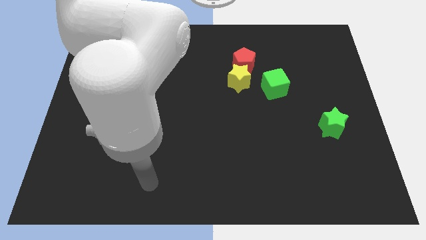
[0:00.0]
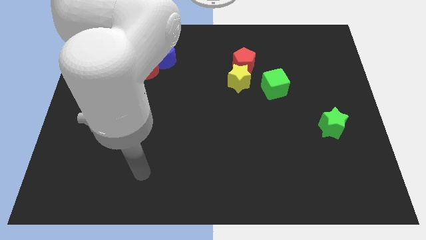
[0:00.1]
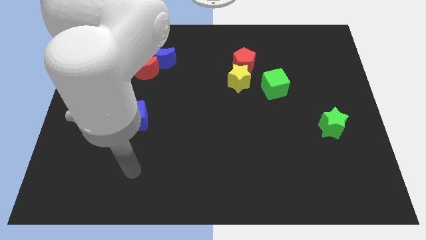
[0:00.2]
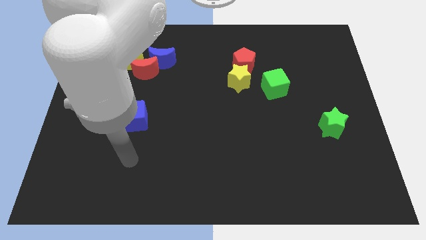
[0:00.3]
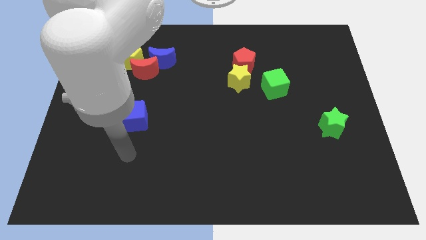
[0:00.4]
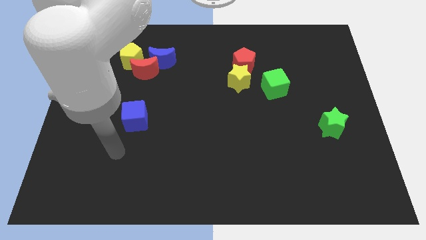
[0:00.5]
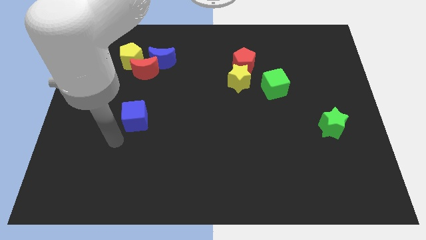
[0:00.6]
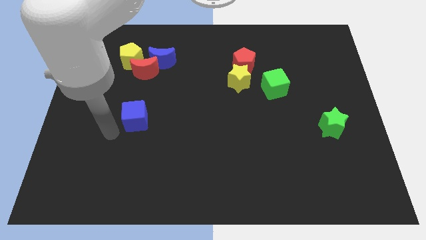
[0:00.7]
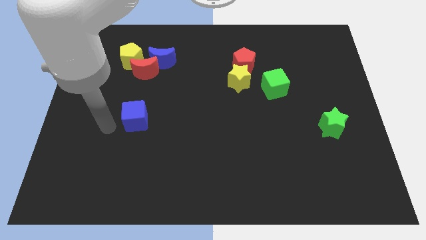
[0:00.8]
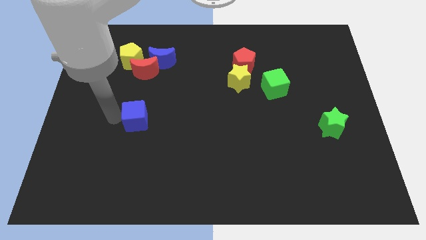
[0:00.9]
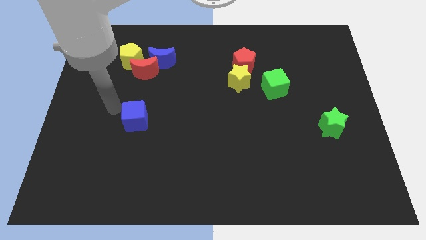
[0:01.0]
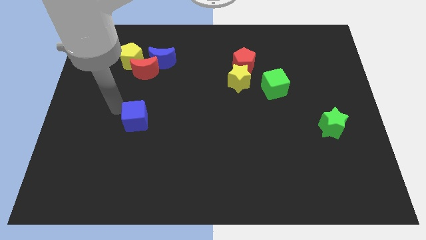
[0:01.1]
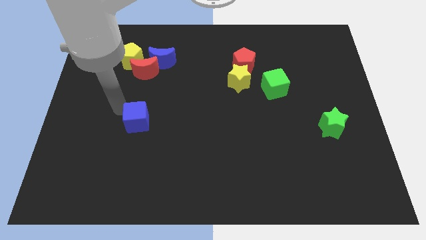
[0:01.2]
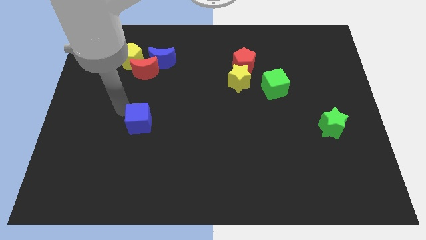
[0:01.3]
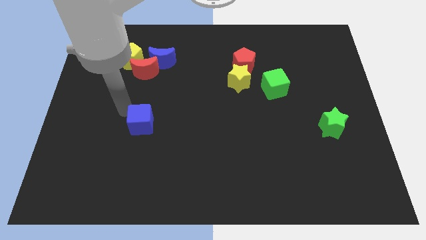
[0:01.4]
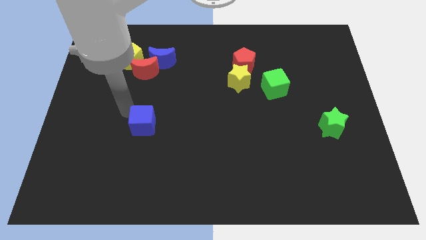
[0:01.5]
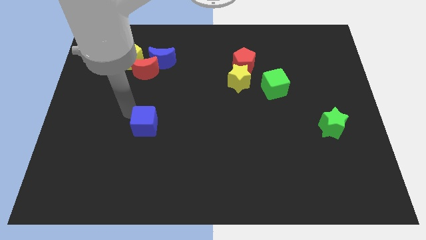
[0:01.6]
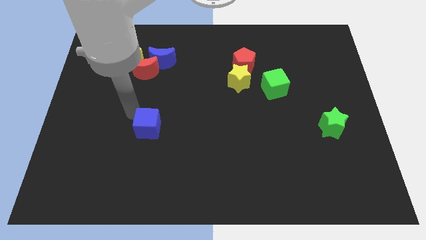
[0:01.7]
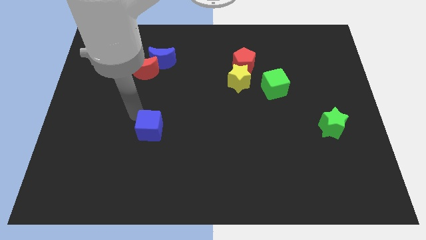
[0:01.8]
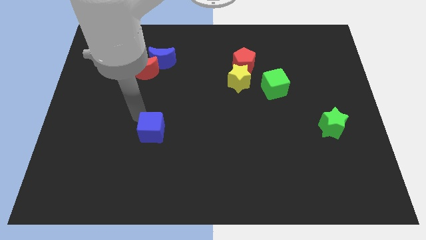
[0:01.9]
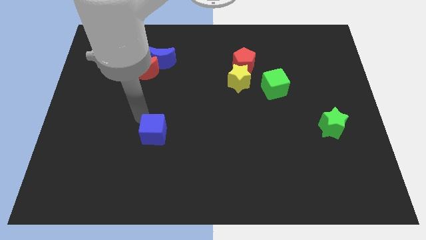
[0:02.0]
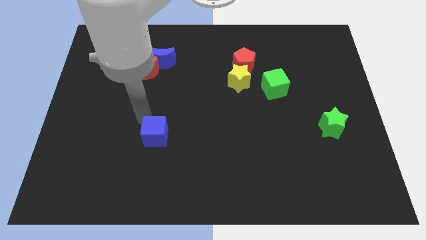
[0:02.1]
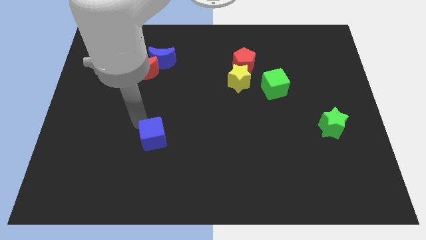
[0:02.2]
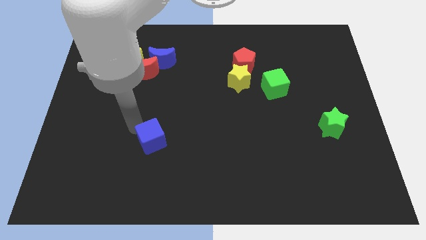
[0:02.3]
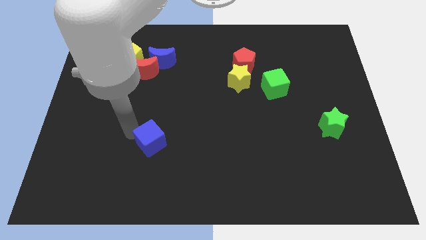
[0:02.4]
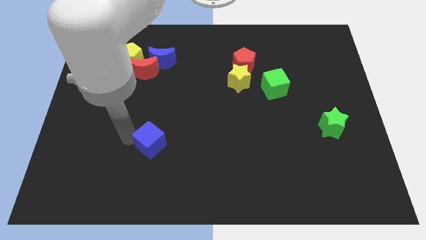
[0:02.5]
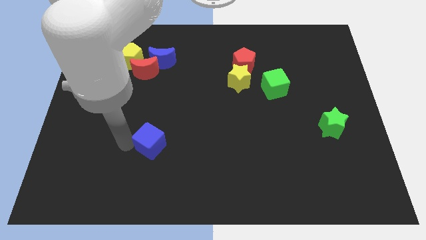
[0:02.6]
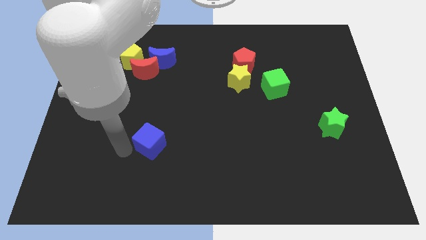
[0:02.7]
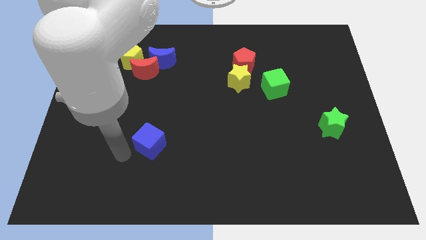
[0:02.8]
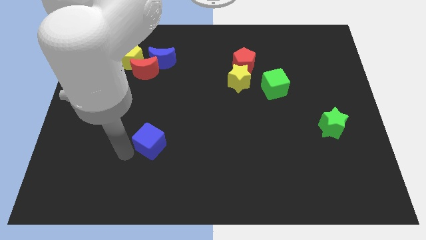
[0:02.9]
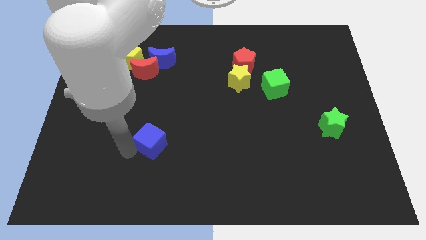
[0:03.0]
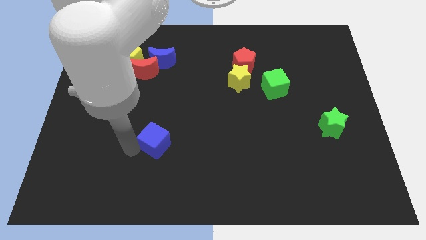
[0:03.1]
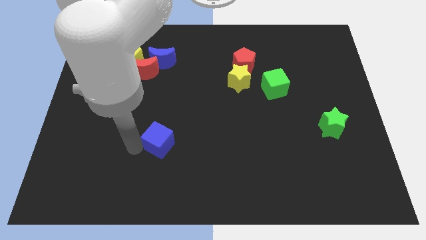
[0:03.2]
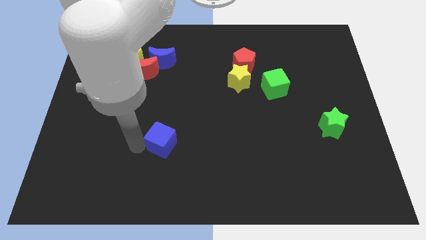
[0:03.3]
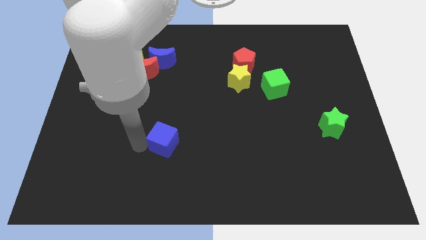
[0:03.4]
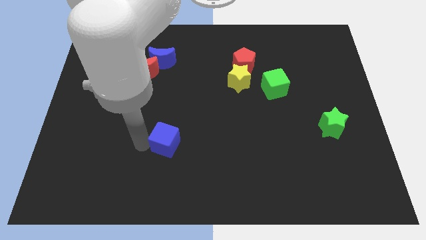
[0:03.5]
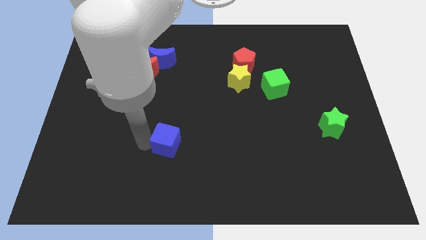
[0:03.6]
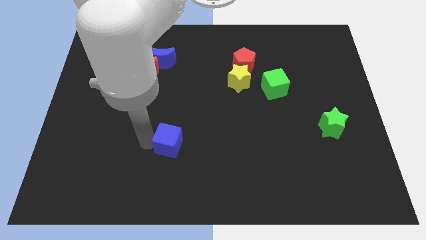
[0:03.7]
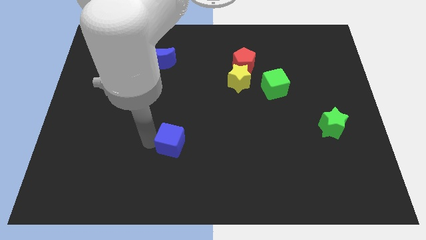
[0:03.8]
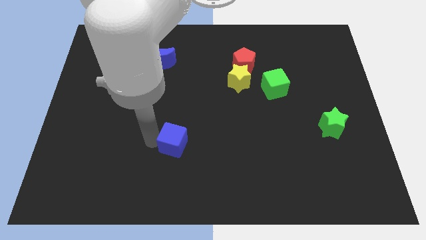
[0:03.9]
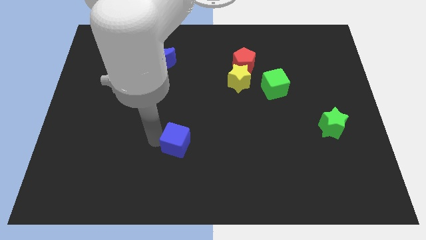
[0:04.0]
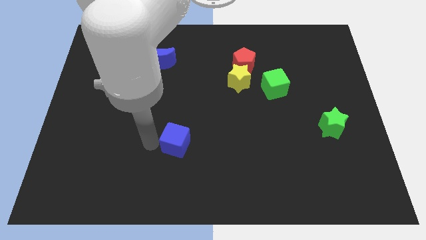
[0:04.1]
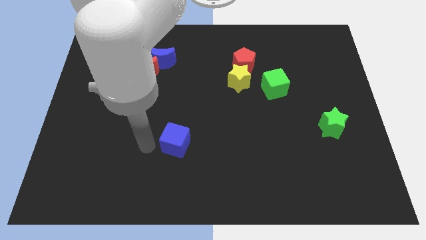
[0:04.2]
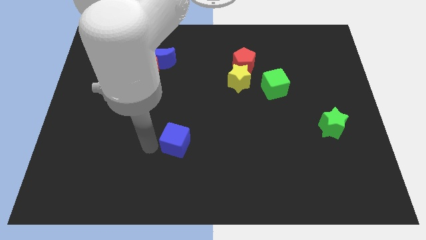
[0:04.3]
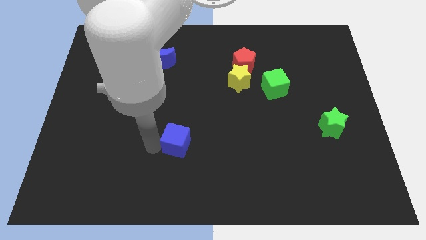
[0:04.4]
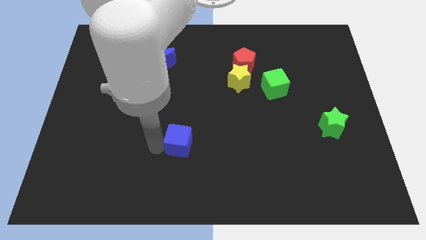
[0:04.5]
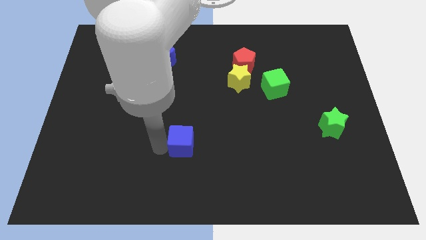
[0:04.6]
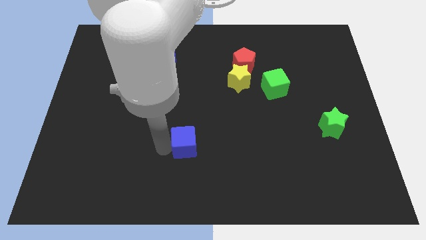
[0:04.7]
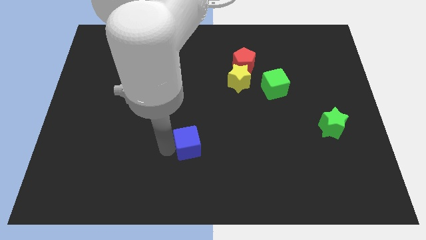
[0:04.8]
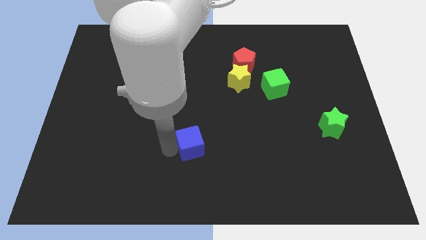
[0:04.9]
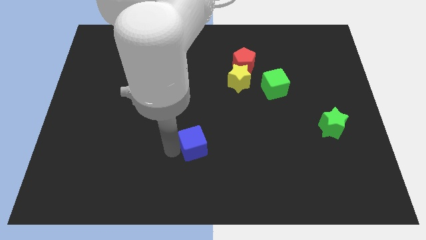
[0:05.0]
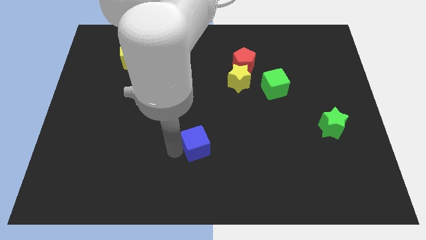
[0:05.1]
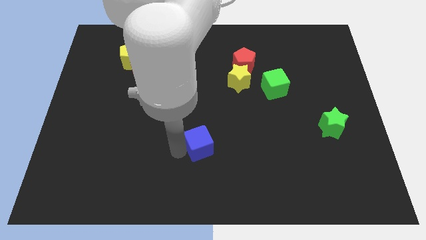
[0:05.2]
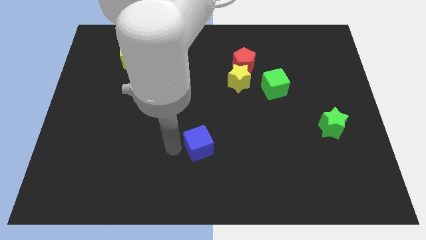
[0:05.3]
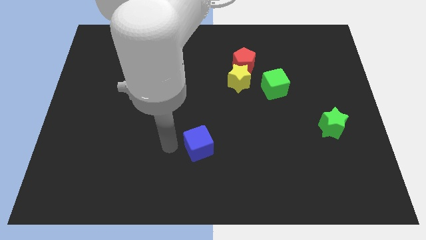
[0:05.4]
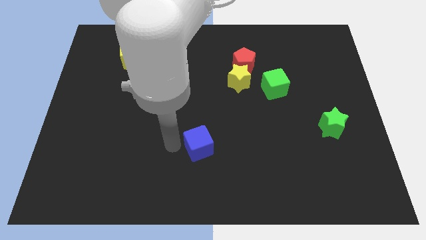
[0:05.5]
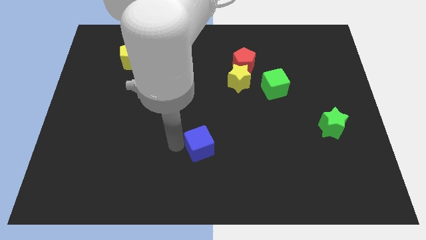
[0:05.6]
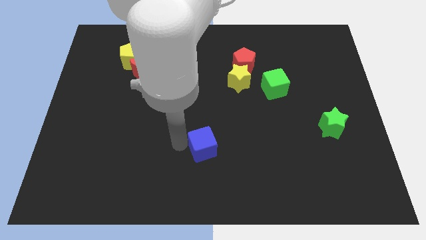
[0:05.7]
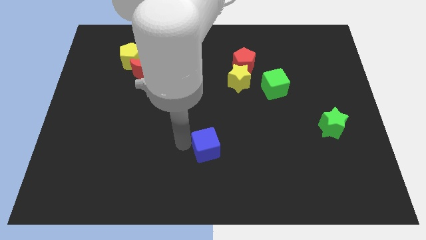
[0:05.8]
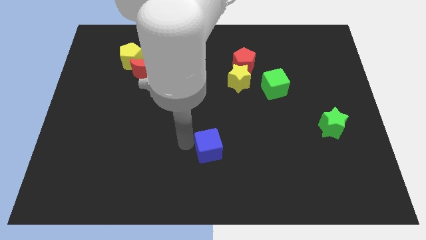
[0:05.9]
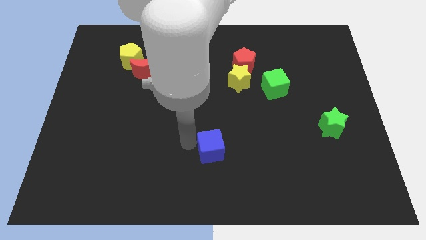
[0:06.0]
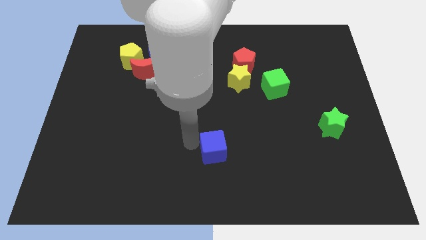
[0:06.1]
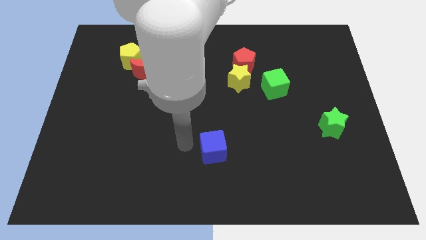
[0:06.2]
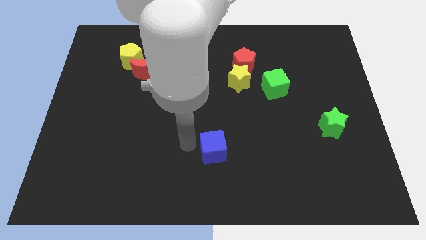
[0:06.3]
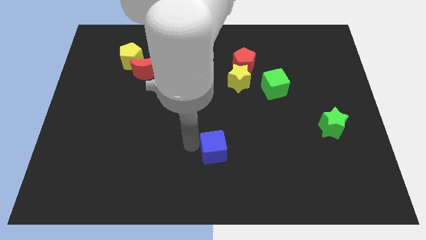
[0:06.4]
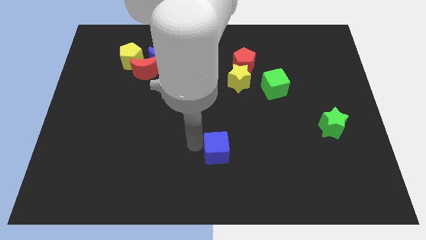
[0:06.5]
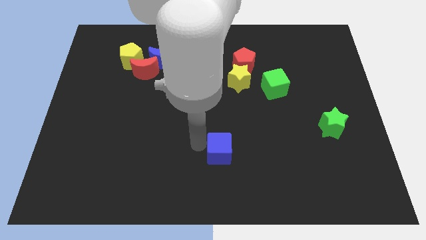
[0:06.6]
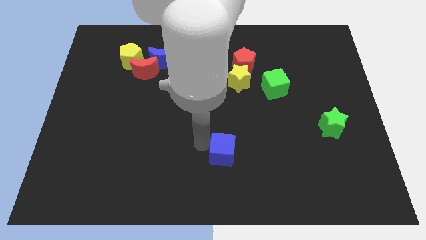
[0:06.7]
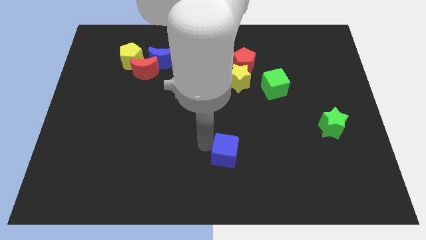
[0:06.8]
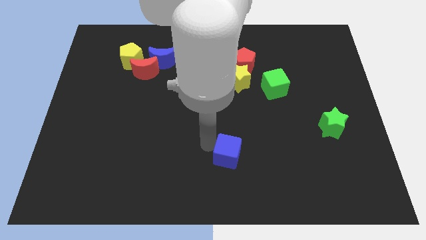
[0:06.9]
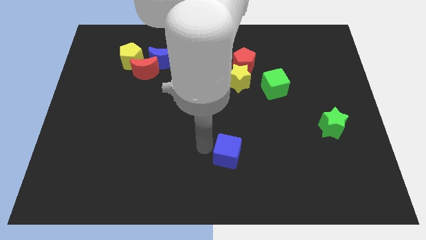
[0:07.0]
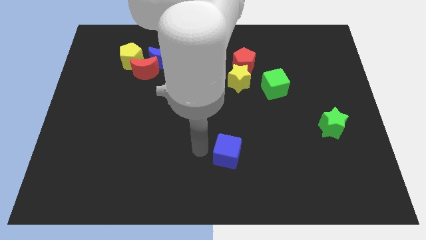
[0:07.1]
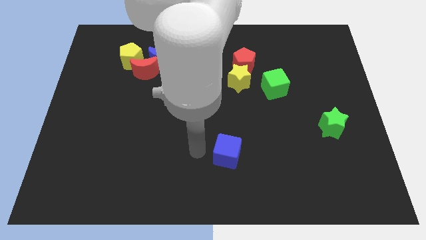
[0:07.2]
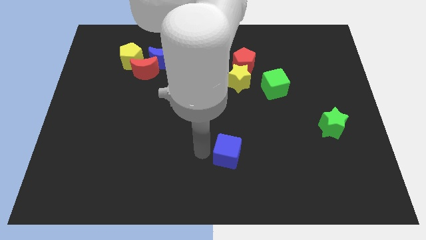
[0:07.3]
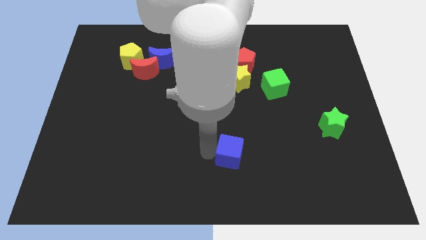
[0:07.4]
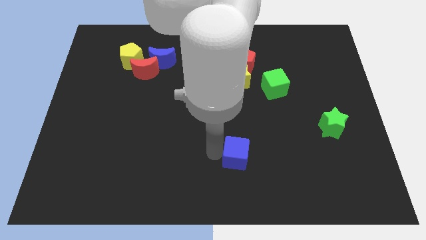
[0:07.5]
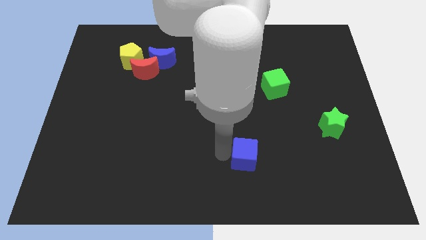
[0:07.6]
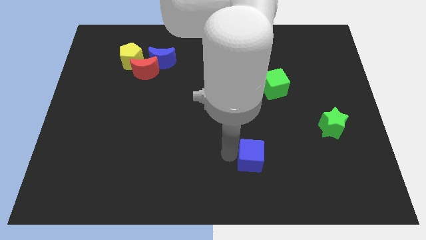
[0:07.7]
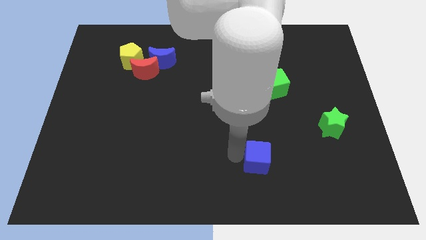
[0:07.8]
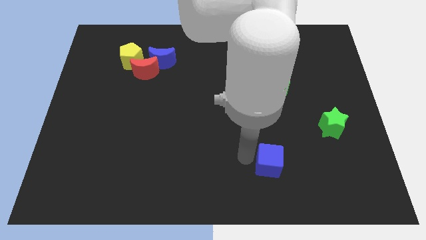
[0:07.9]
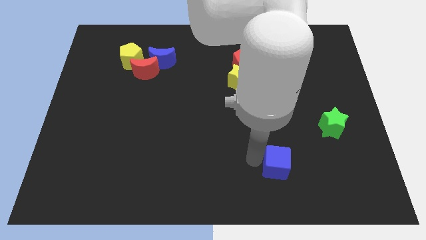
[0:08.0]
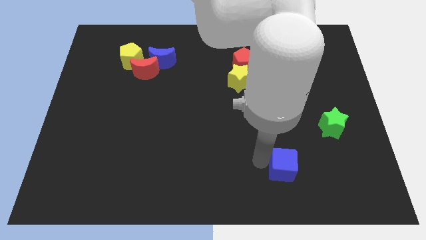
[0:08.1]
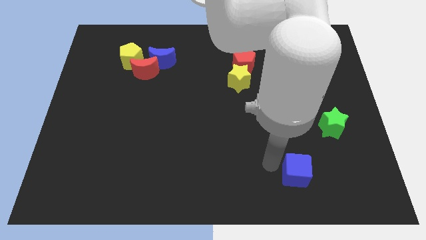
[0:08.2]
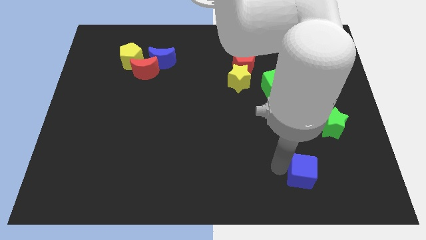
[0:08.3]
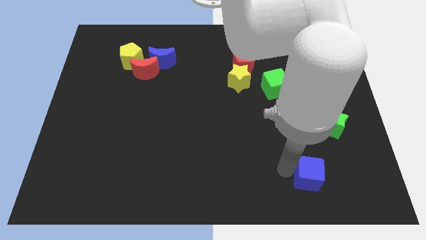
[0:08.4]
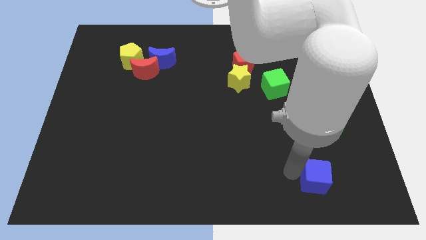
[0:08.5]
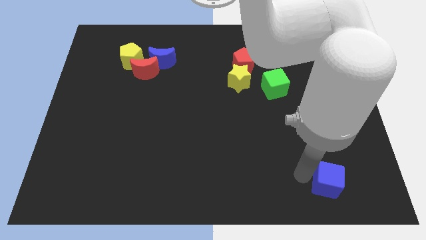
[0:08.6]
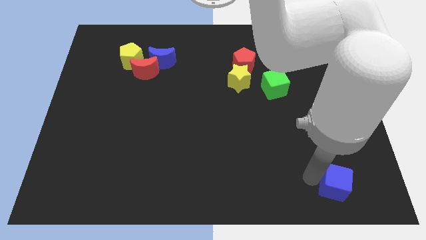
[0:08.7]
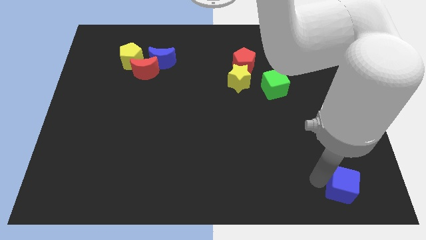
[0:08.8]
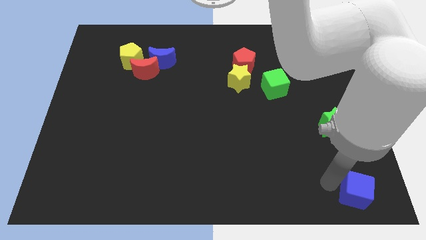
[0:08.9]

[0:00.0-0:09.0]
push the blue cube to the lower right corner
